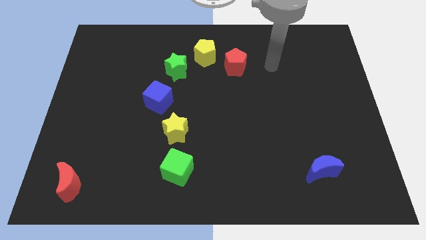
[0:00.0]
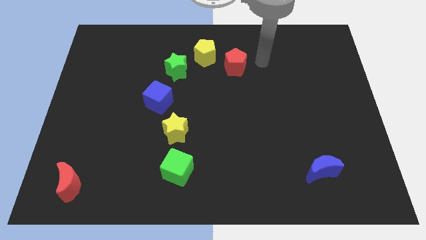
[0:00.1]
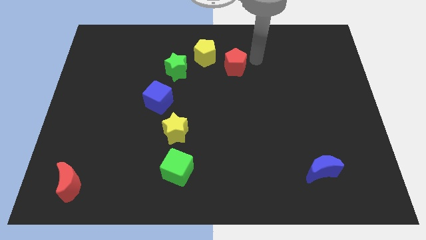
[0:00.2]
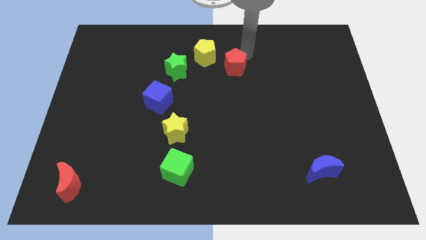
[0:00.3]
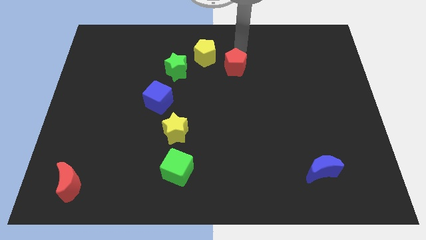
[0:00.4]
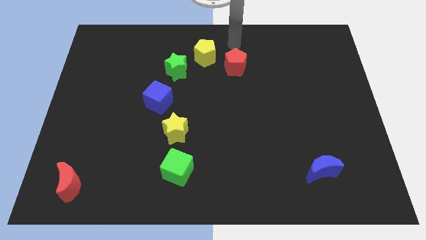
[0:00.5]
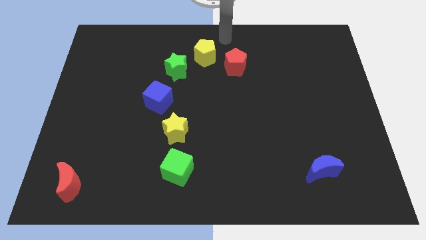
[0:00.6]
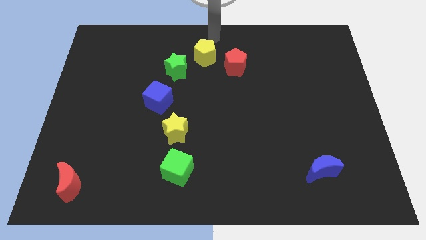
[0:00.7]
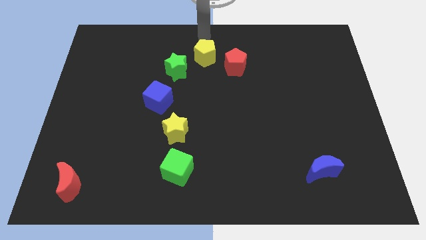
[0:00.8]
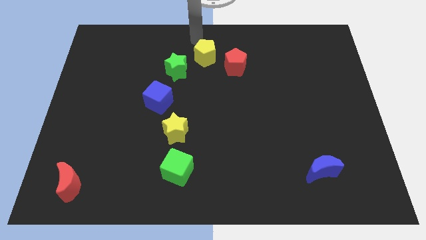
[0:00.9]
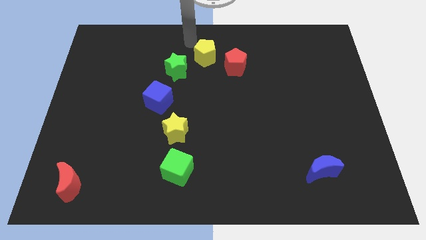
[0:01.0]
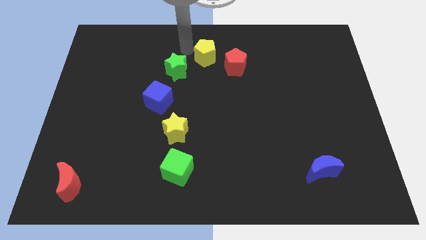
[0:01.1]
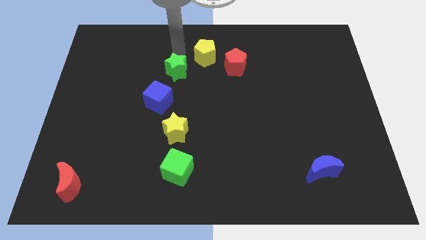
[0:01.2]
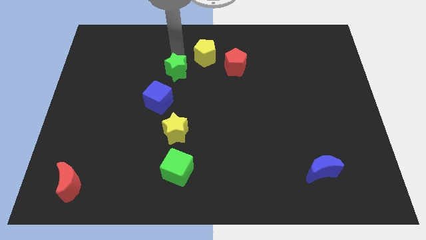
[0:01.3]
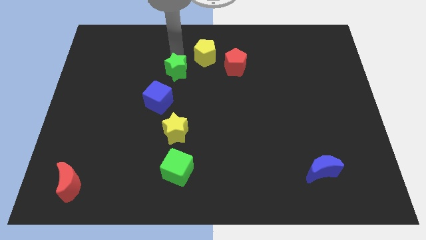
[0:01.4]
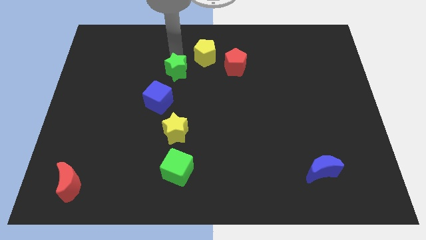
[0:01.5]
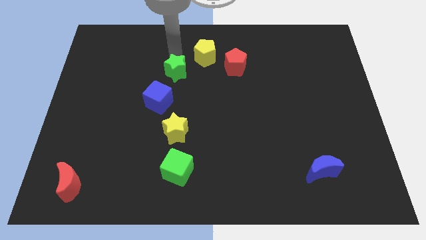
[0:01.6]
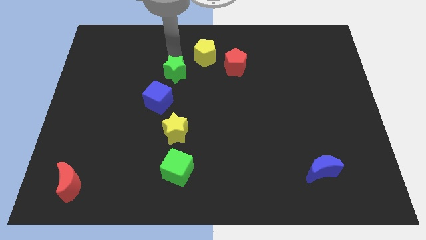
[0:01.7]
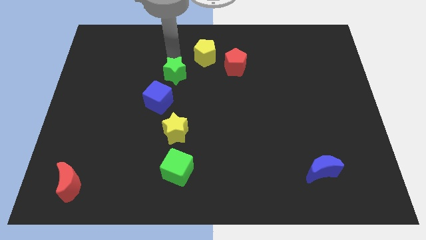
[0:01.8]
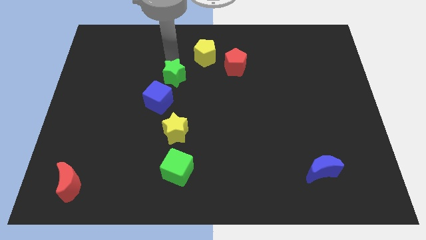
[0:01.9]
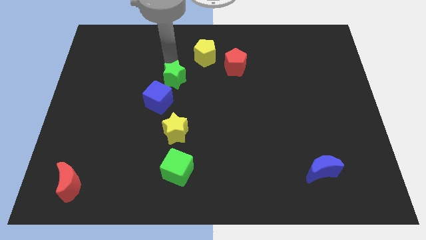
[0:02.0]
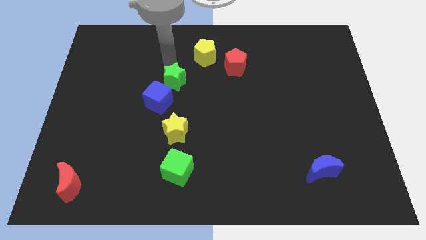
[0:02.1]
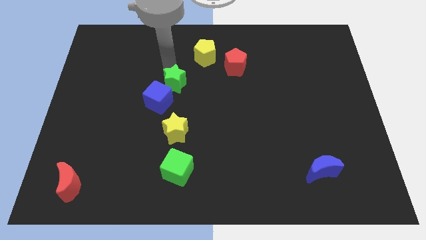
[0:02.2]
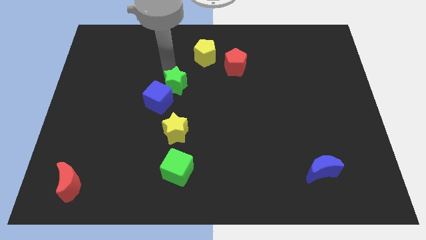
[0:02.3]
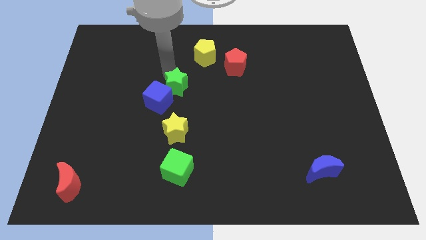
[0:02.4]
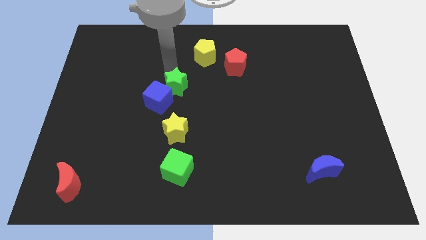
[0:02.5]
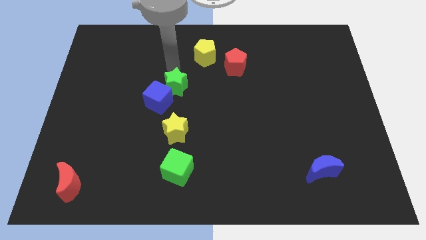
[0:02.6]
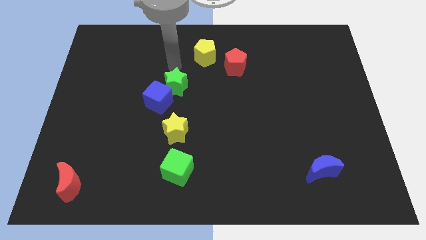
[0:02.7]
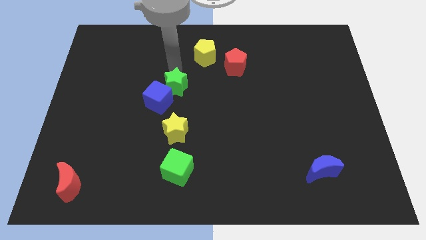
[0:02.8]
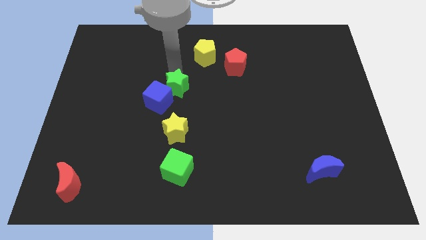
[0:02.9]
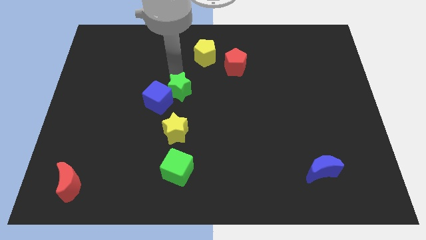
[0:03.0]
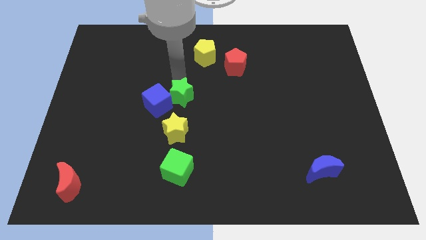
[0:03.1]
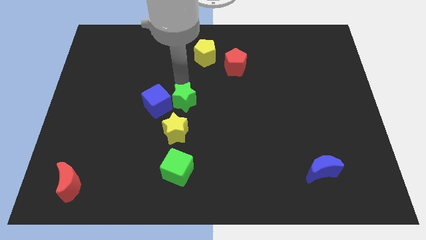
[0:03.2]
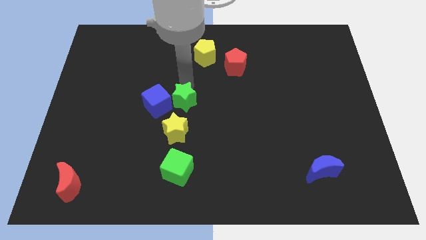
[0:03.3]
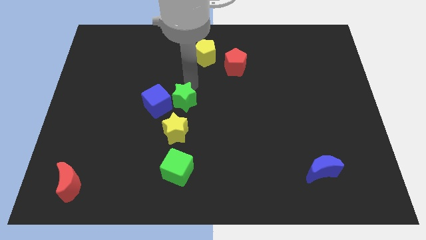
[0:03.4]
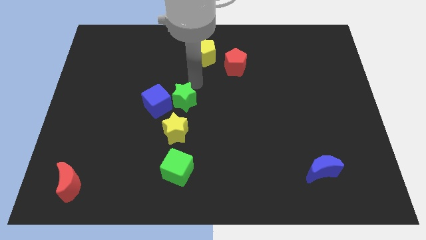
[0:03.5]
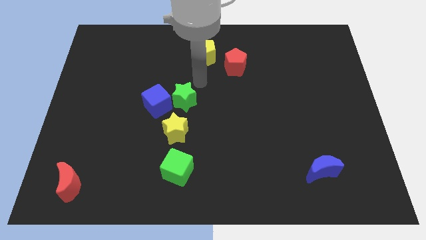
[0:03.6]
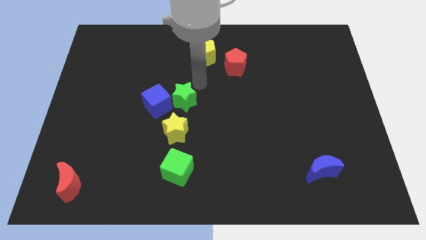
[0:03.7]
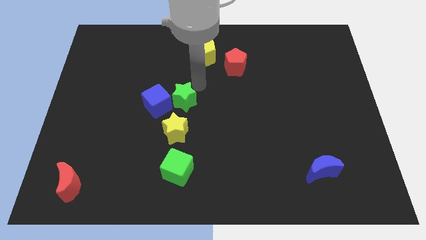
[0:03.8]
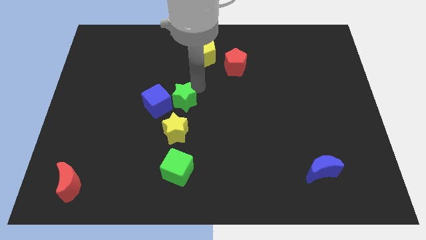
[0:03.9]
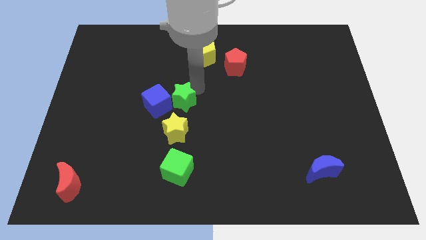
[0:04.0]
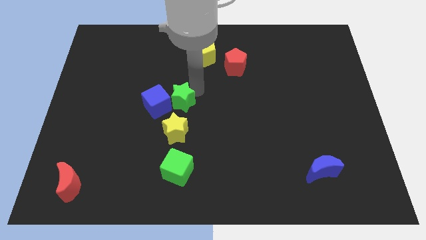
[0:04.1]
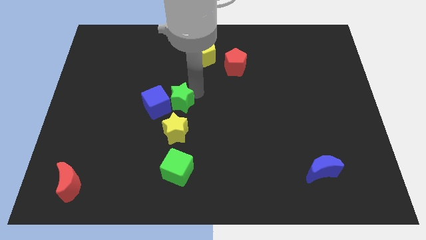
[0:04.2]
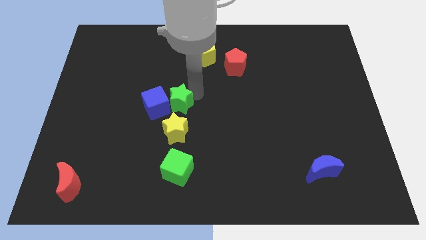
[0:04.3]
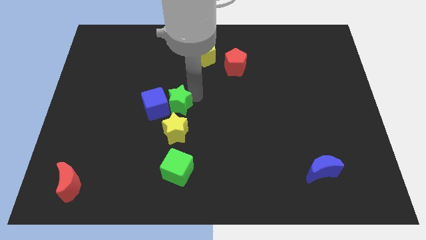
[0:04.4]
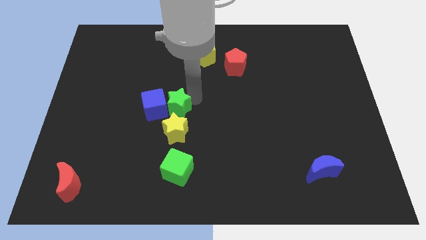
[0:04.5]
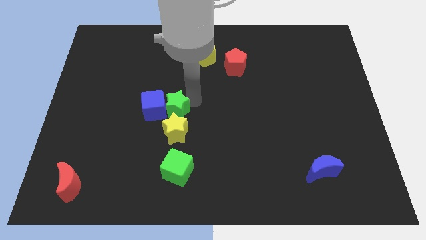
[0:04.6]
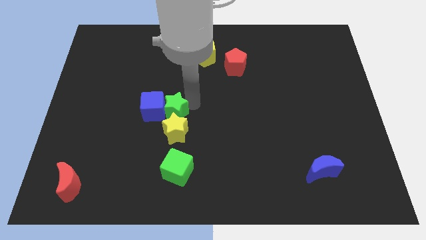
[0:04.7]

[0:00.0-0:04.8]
slide the green star to the yellow star

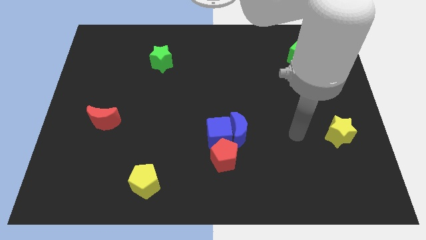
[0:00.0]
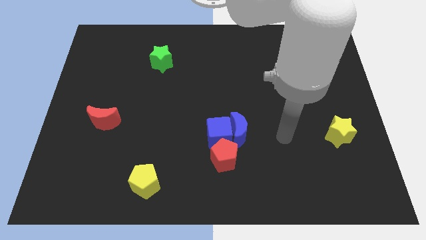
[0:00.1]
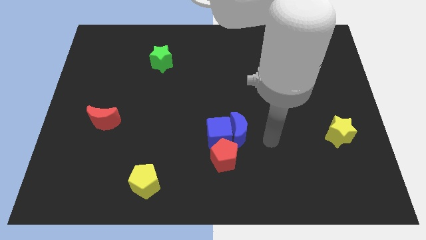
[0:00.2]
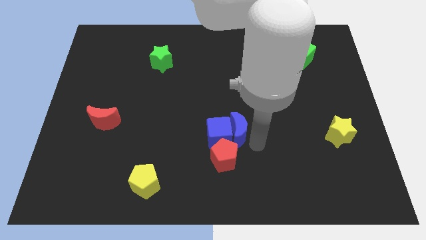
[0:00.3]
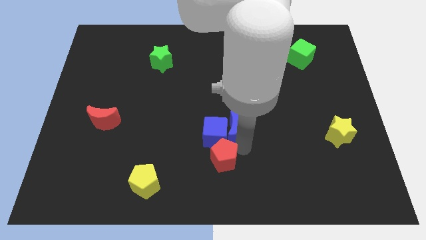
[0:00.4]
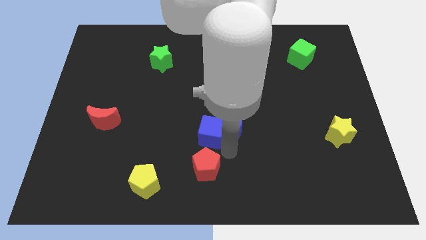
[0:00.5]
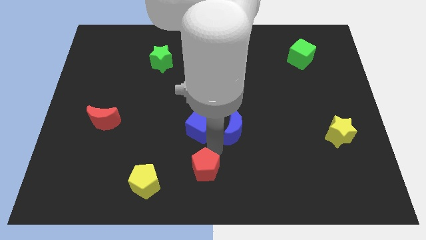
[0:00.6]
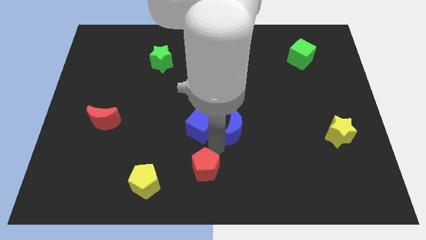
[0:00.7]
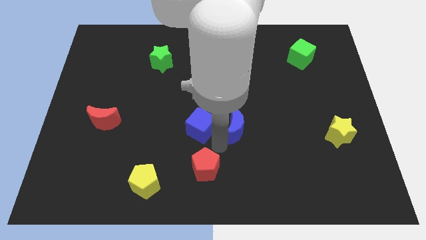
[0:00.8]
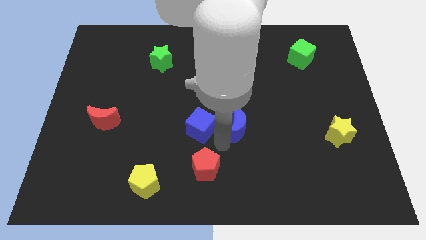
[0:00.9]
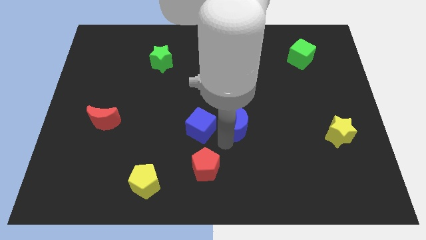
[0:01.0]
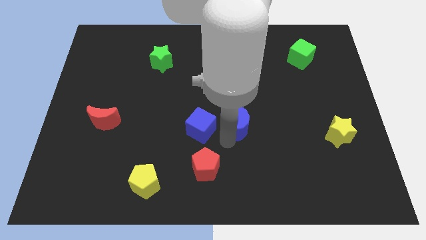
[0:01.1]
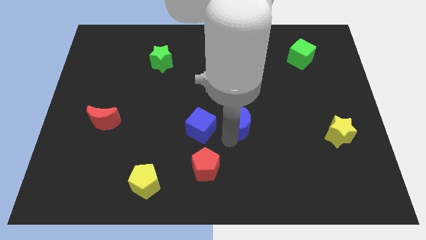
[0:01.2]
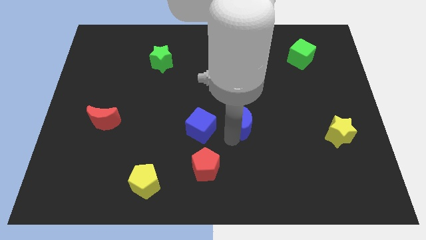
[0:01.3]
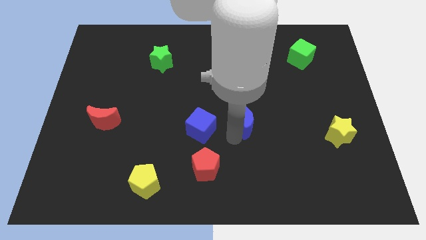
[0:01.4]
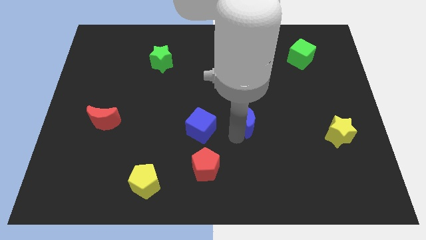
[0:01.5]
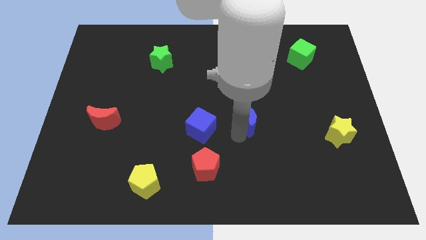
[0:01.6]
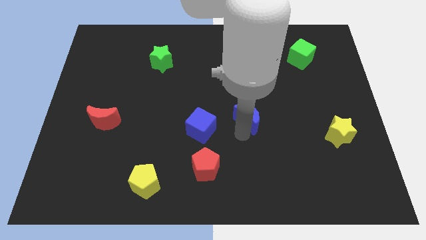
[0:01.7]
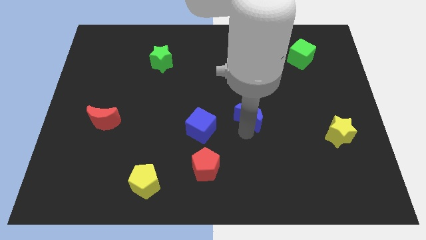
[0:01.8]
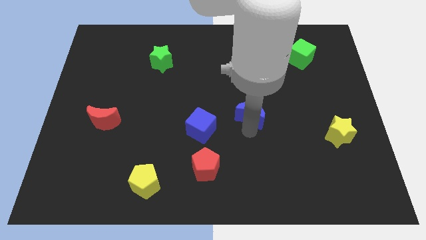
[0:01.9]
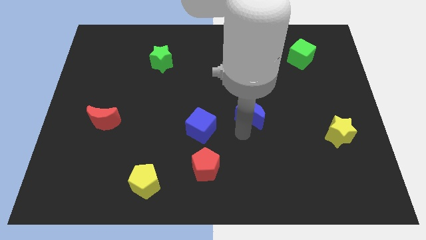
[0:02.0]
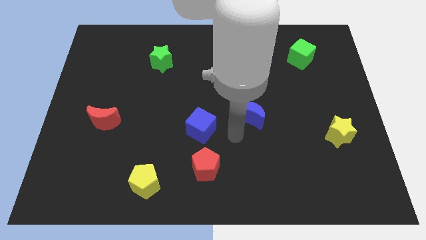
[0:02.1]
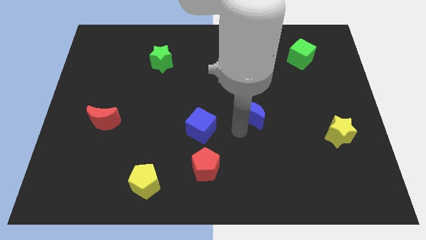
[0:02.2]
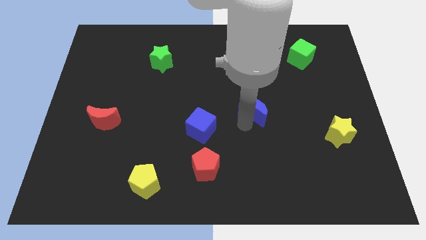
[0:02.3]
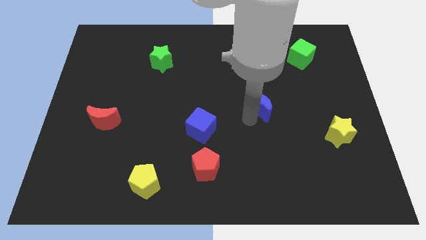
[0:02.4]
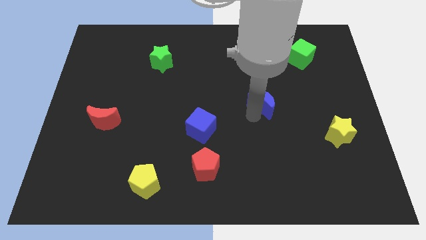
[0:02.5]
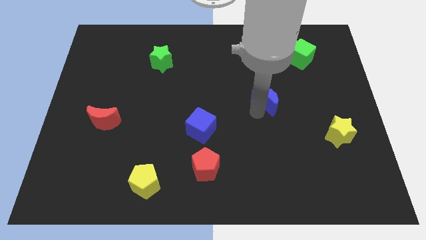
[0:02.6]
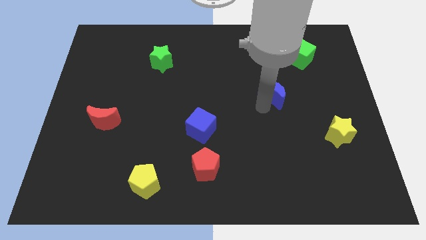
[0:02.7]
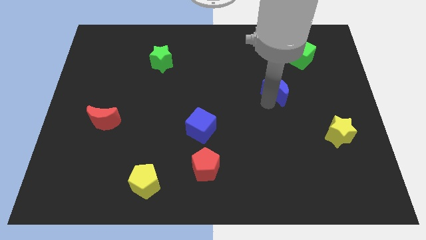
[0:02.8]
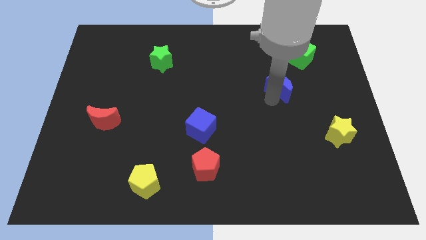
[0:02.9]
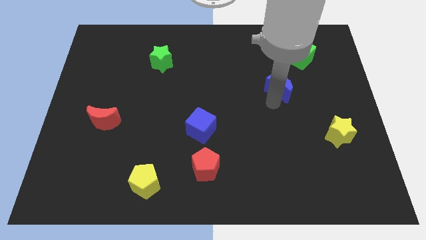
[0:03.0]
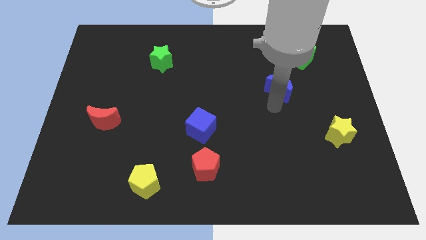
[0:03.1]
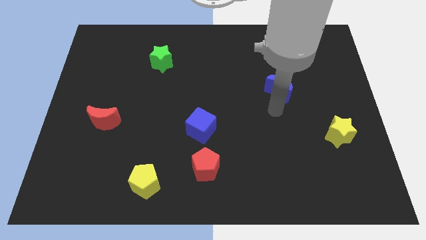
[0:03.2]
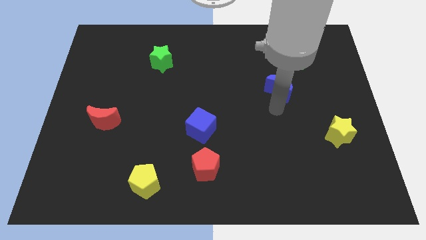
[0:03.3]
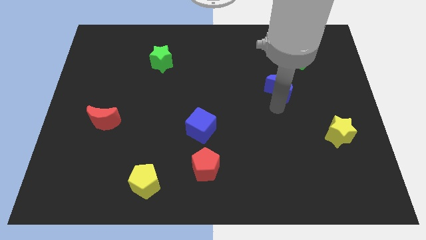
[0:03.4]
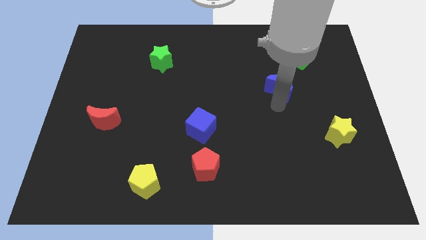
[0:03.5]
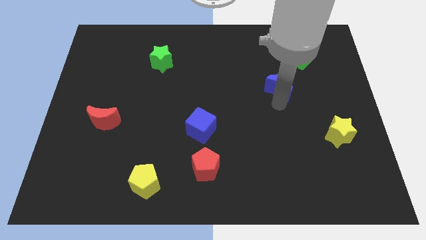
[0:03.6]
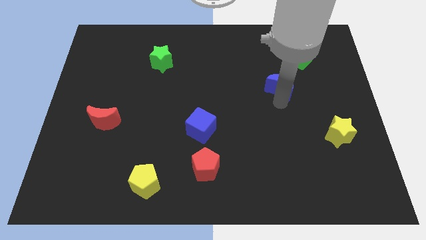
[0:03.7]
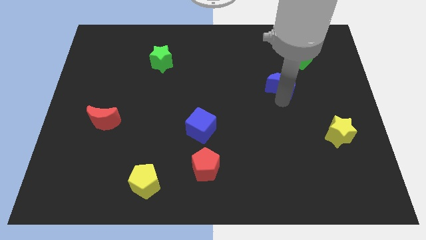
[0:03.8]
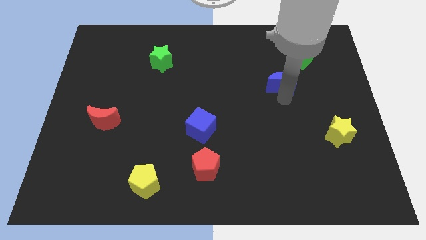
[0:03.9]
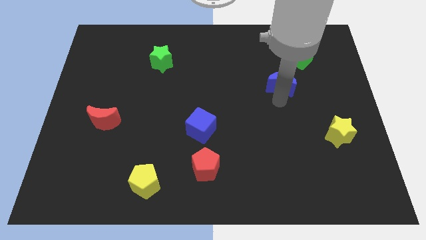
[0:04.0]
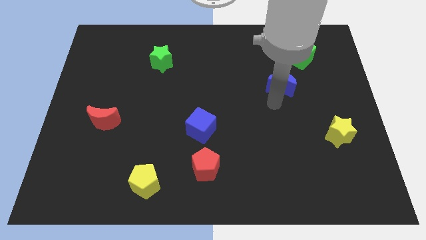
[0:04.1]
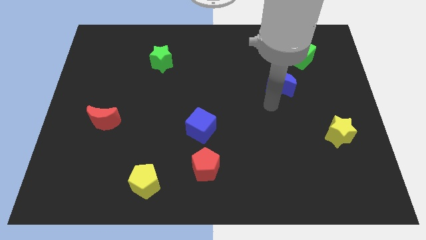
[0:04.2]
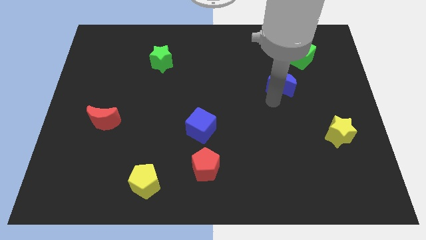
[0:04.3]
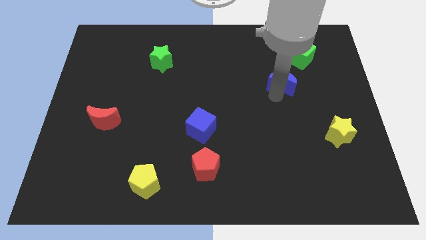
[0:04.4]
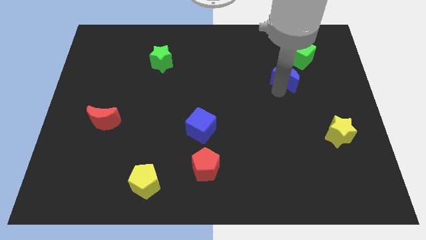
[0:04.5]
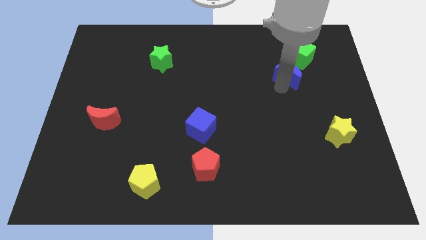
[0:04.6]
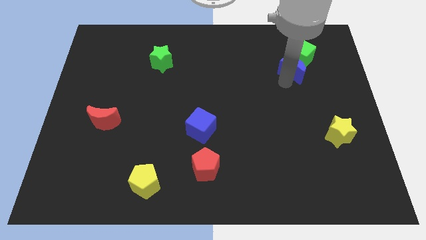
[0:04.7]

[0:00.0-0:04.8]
move the blue moon close to the green cube
